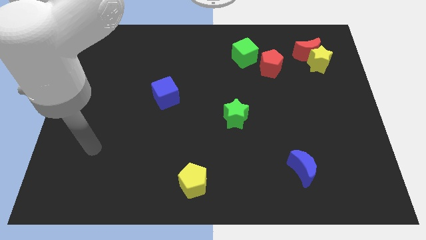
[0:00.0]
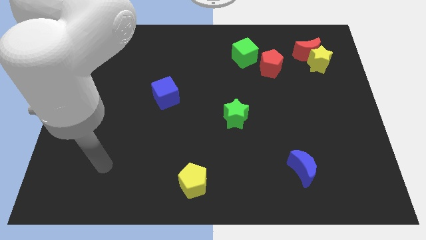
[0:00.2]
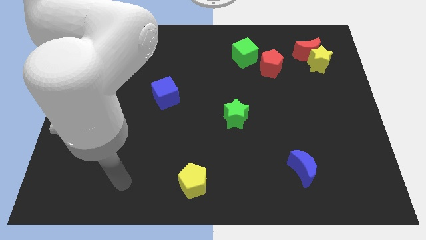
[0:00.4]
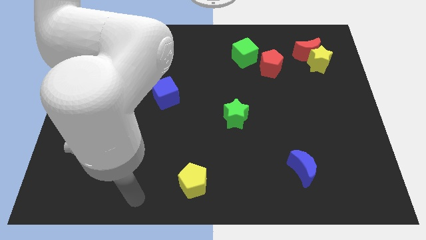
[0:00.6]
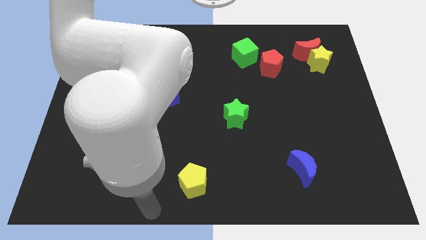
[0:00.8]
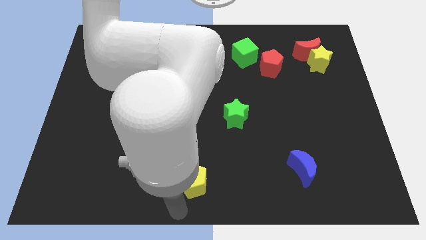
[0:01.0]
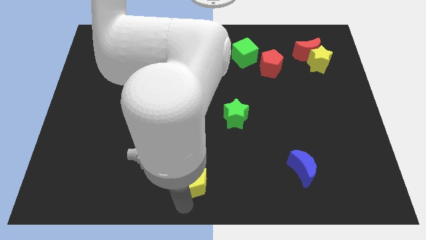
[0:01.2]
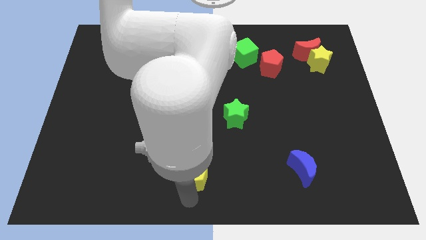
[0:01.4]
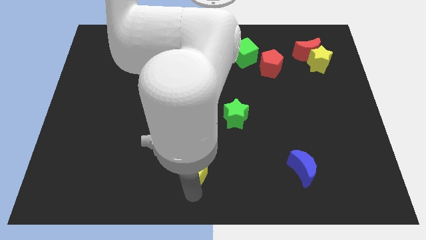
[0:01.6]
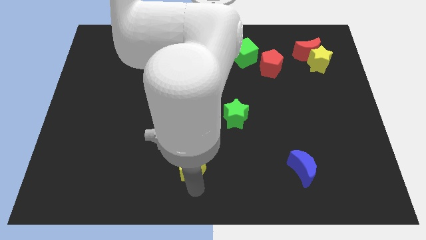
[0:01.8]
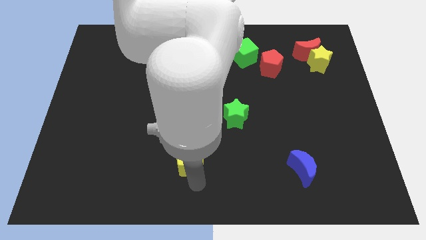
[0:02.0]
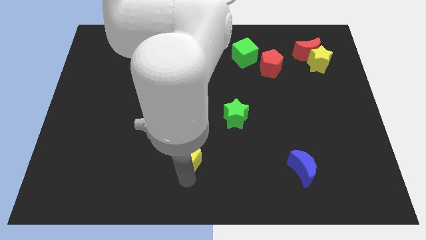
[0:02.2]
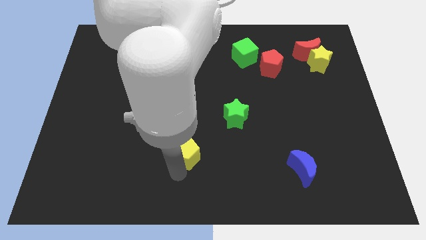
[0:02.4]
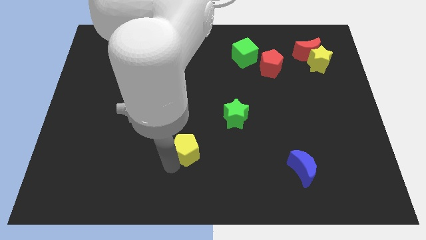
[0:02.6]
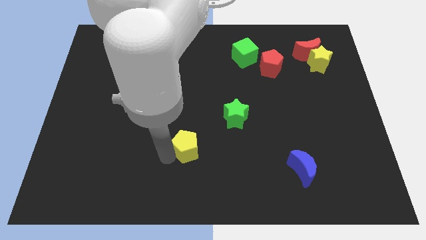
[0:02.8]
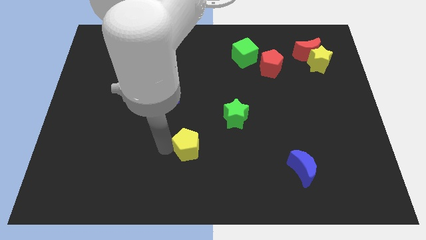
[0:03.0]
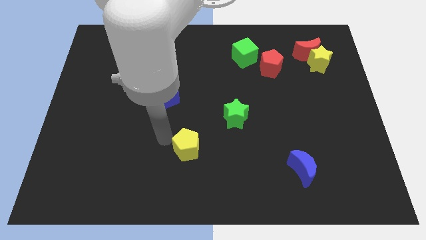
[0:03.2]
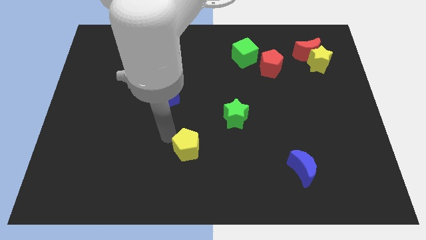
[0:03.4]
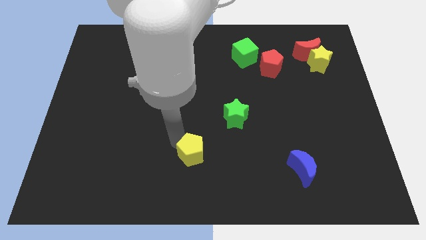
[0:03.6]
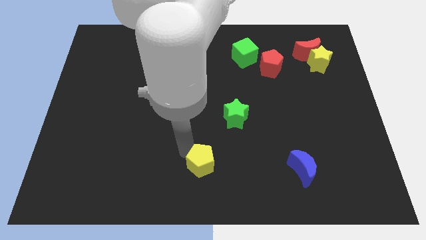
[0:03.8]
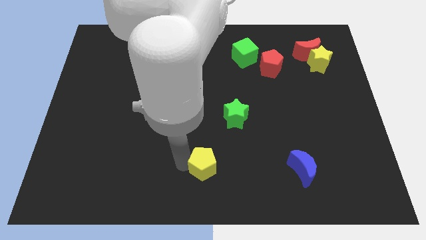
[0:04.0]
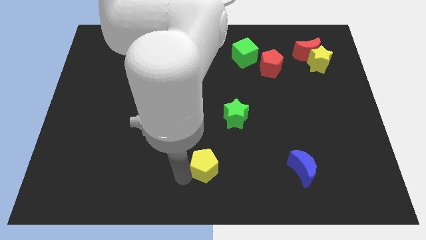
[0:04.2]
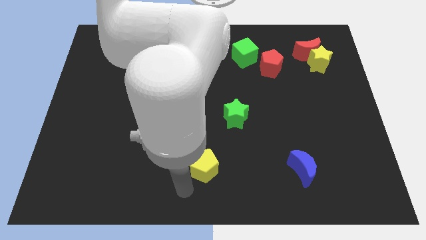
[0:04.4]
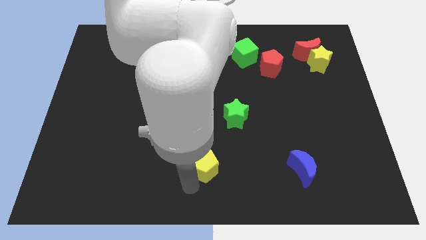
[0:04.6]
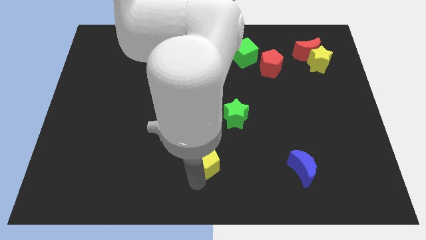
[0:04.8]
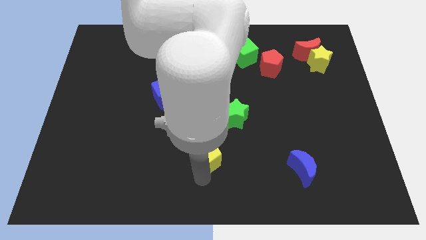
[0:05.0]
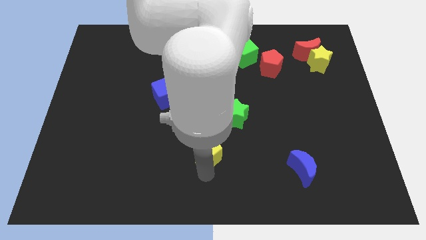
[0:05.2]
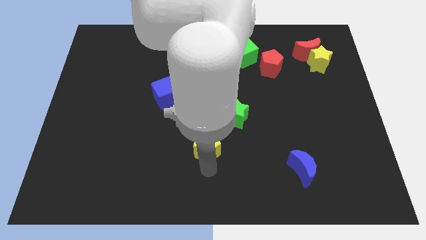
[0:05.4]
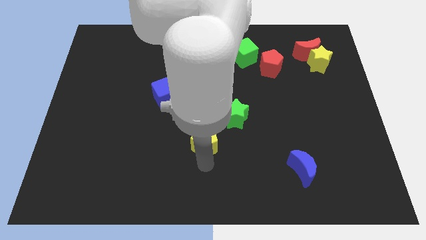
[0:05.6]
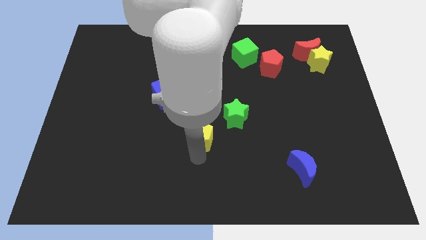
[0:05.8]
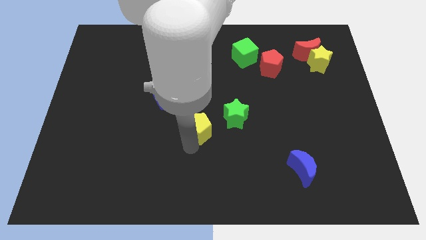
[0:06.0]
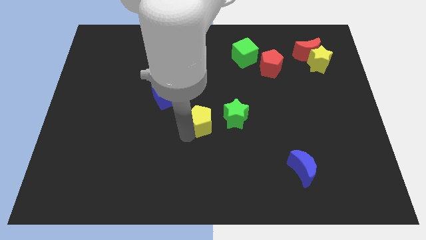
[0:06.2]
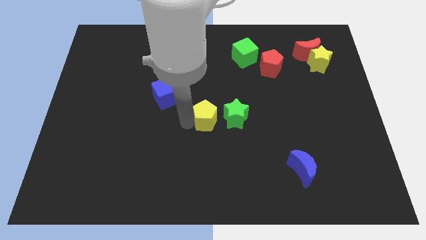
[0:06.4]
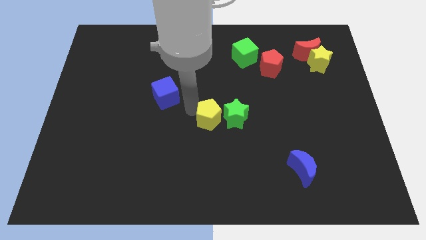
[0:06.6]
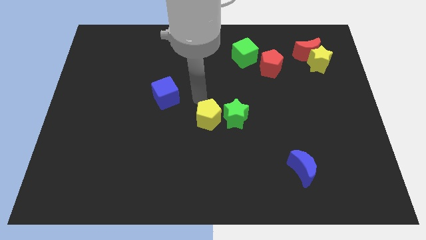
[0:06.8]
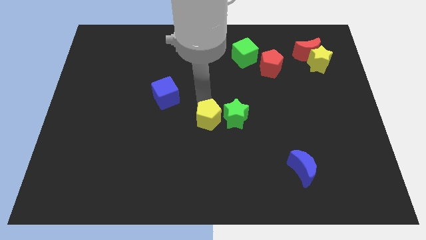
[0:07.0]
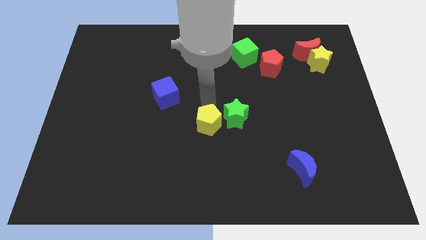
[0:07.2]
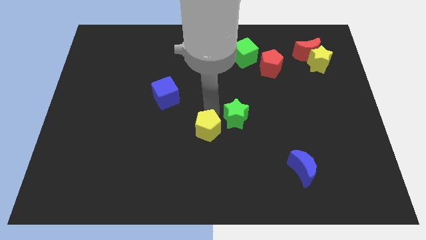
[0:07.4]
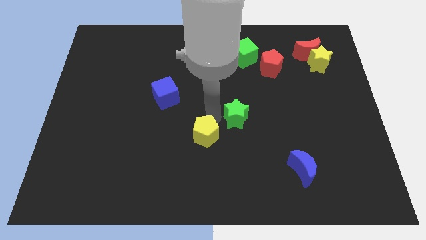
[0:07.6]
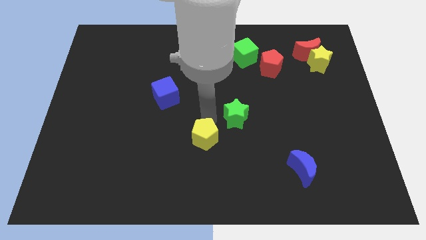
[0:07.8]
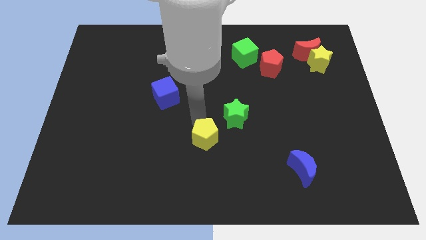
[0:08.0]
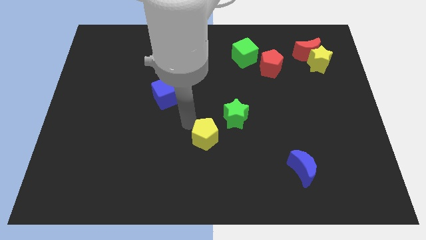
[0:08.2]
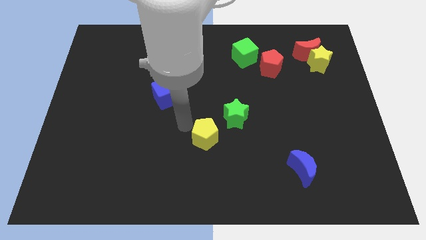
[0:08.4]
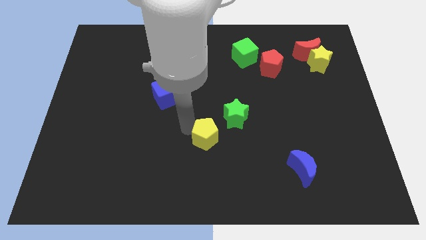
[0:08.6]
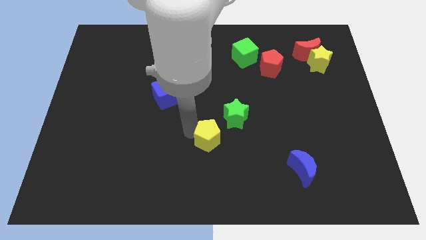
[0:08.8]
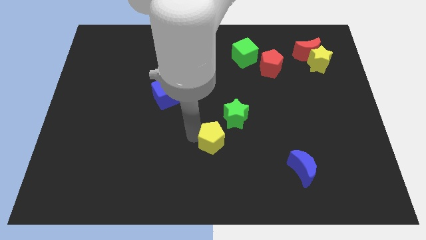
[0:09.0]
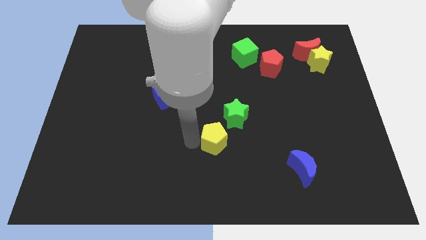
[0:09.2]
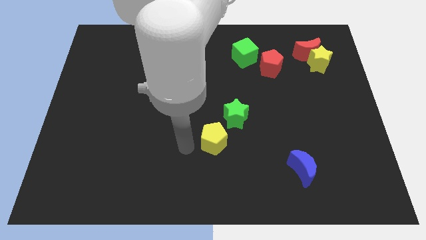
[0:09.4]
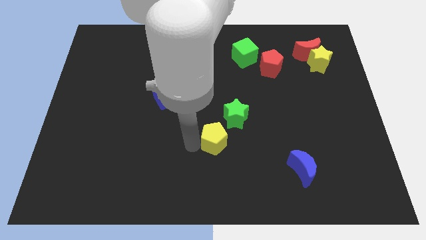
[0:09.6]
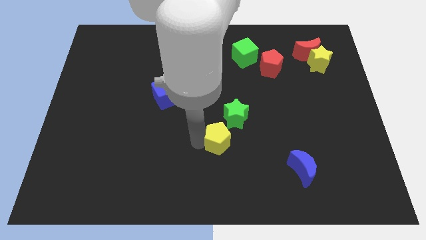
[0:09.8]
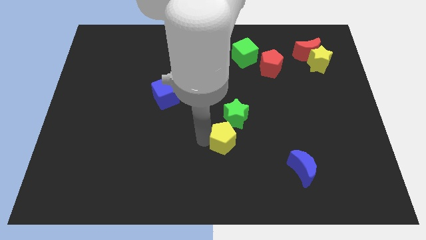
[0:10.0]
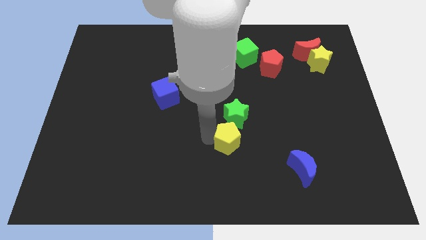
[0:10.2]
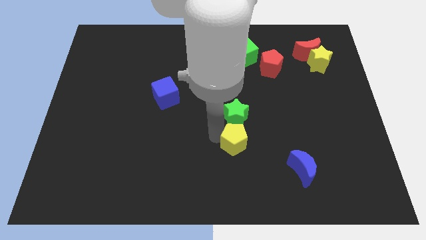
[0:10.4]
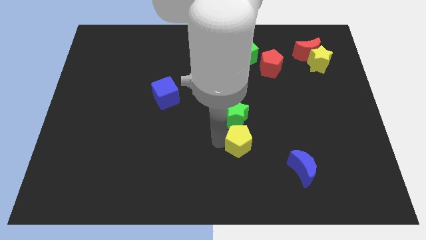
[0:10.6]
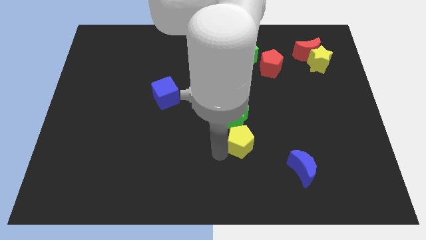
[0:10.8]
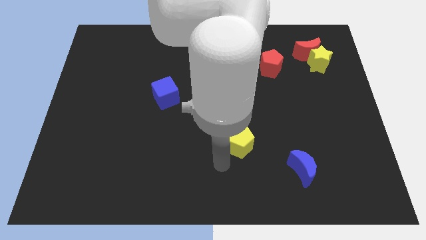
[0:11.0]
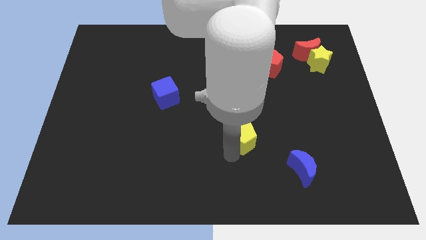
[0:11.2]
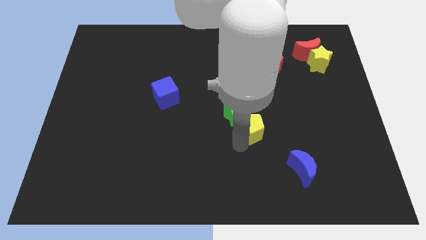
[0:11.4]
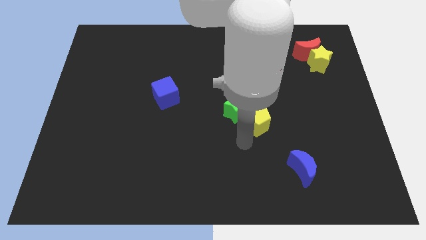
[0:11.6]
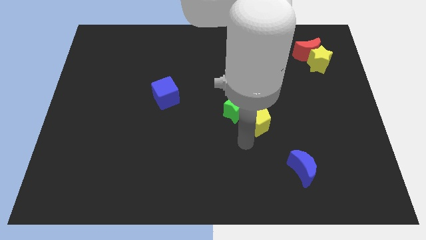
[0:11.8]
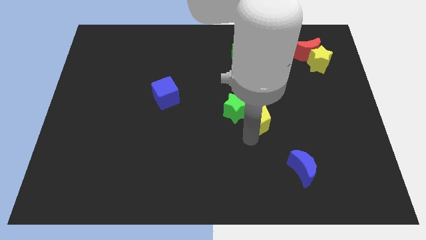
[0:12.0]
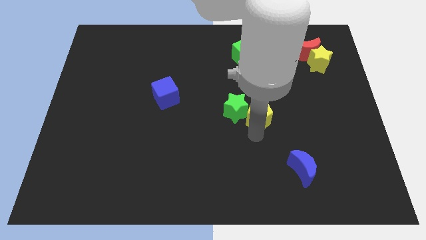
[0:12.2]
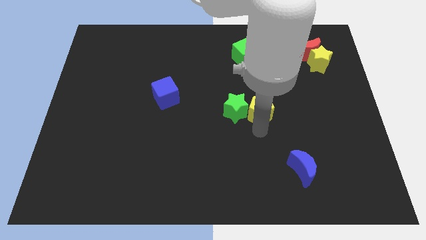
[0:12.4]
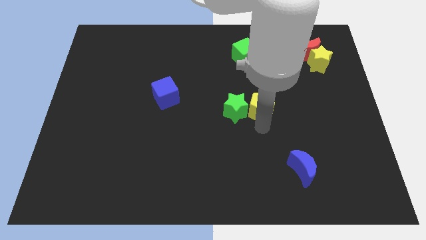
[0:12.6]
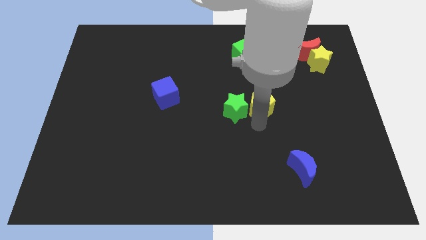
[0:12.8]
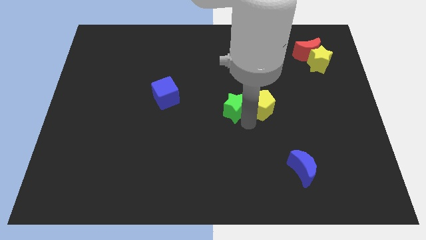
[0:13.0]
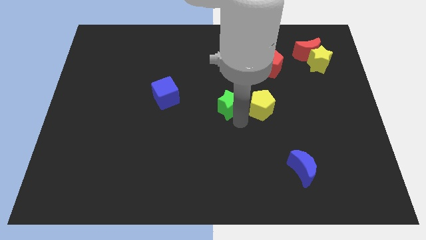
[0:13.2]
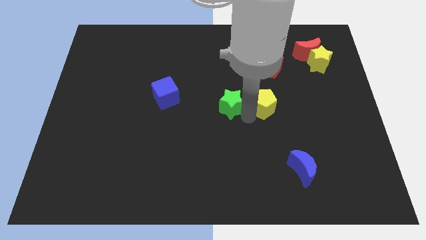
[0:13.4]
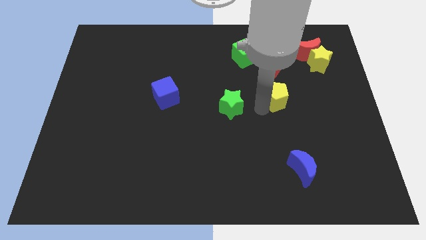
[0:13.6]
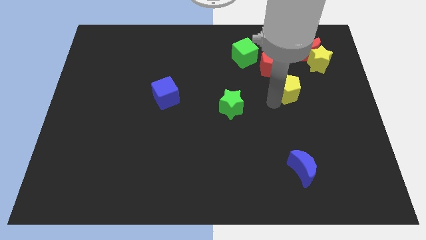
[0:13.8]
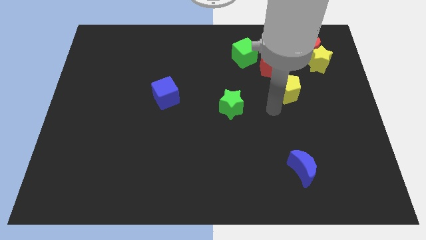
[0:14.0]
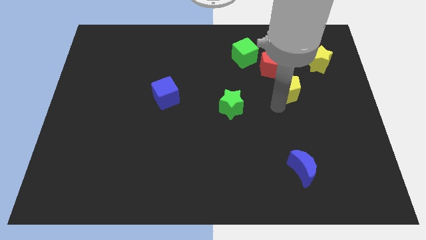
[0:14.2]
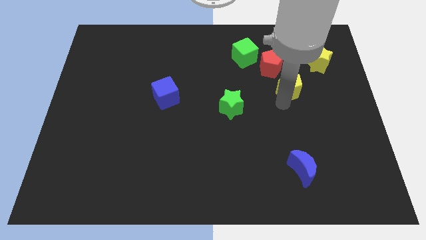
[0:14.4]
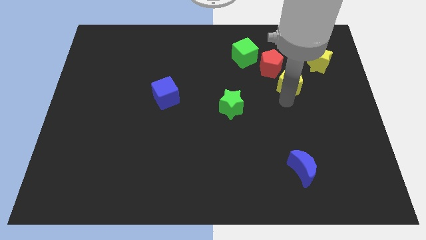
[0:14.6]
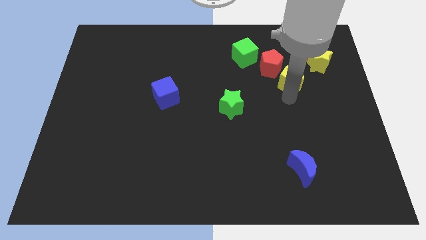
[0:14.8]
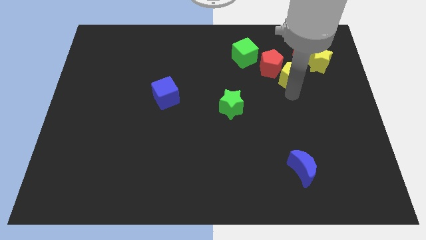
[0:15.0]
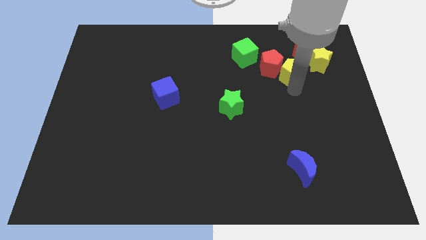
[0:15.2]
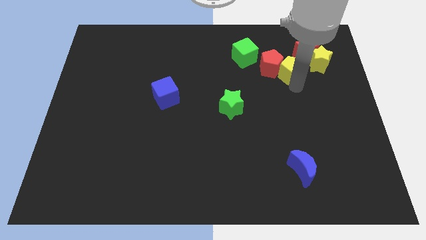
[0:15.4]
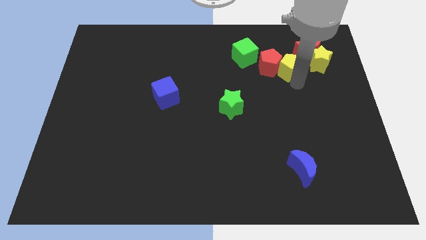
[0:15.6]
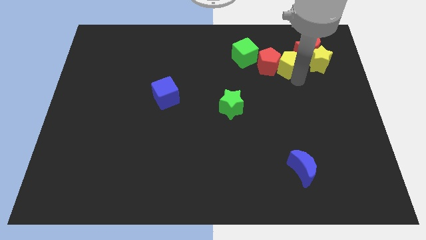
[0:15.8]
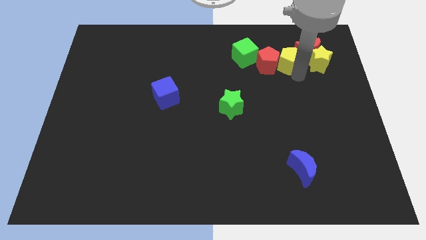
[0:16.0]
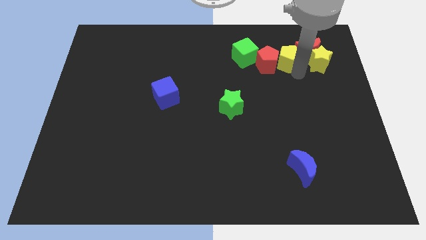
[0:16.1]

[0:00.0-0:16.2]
slide the yellow pentagon to the red moon
